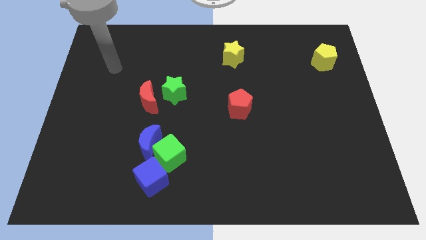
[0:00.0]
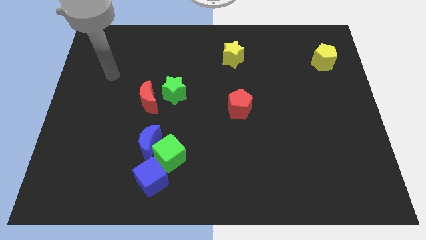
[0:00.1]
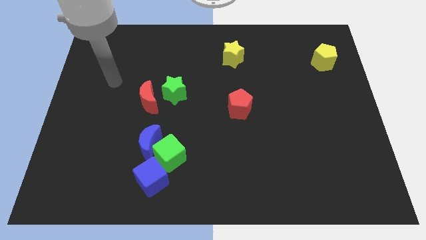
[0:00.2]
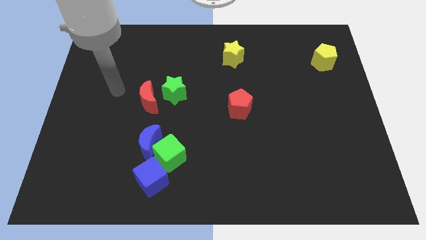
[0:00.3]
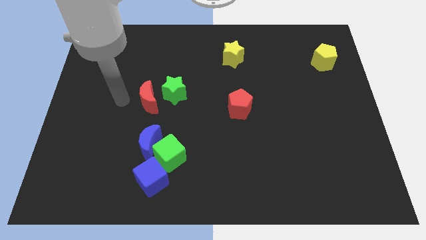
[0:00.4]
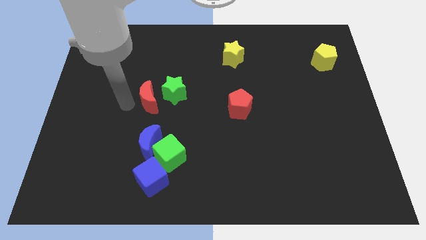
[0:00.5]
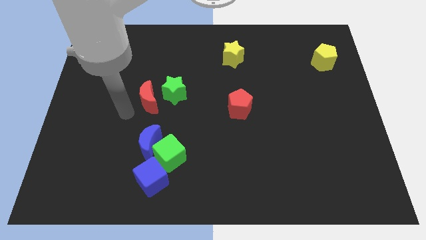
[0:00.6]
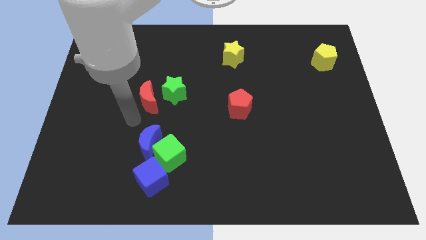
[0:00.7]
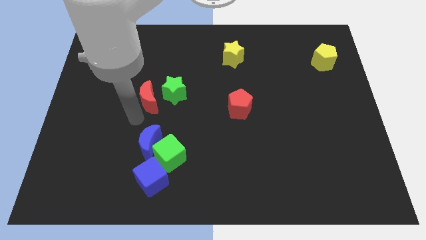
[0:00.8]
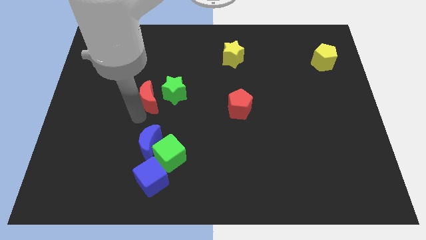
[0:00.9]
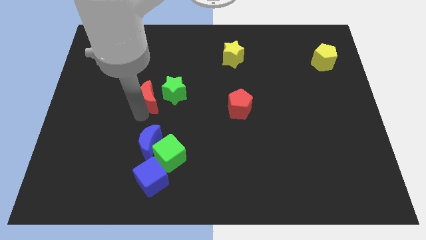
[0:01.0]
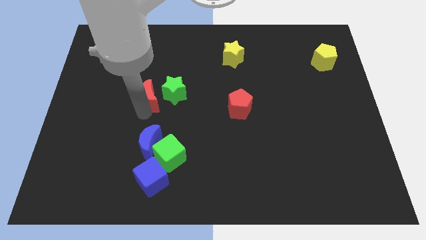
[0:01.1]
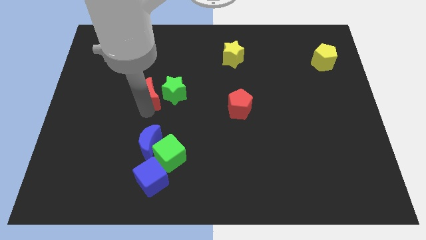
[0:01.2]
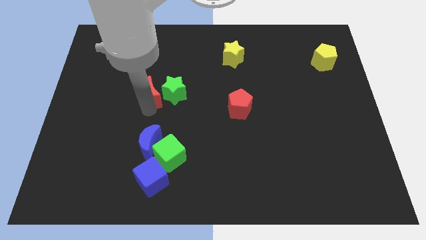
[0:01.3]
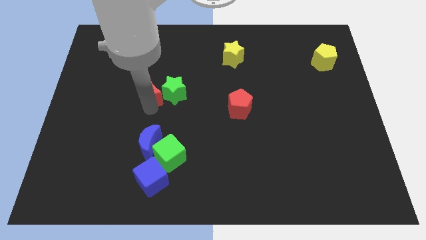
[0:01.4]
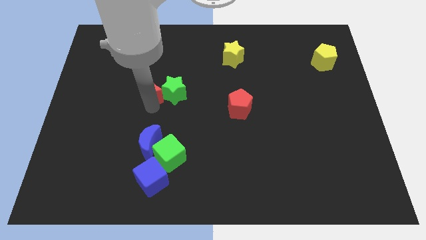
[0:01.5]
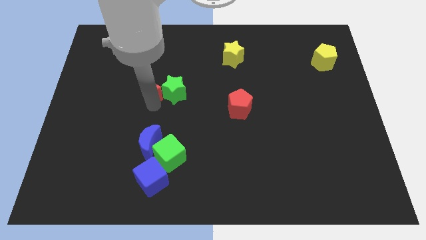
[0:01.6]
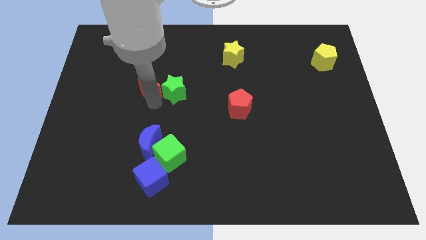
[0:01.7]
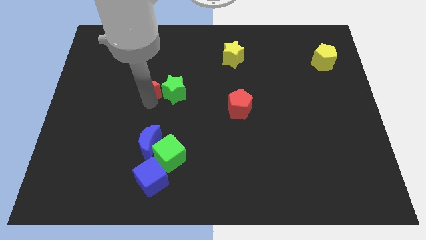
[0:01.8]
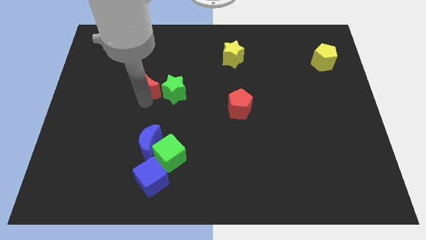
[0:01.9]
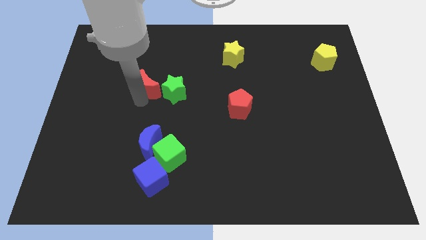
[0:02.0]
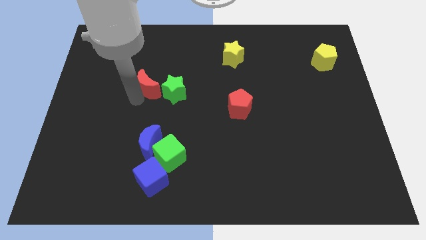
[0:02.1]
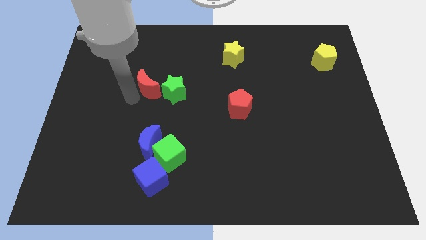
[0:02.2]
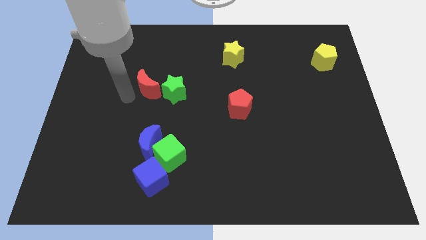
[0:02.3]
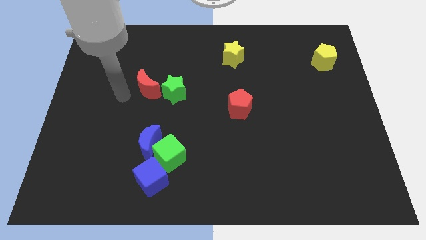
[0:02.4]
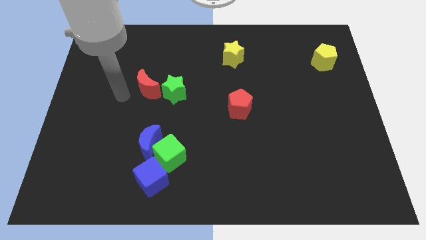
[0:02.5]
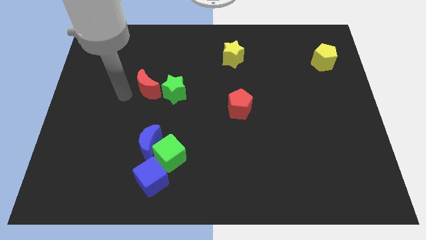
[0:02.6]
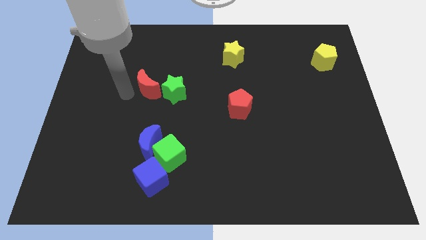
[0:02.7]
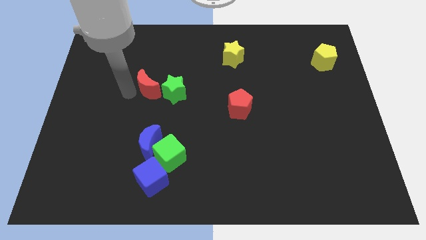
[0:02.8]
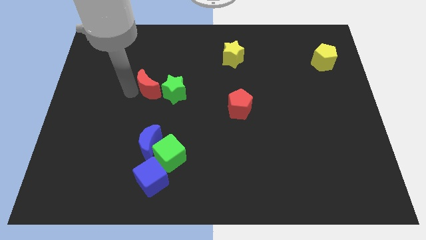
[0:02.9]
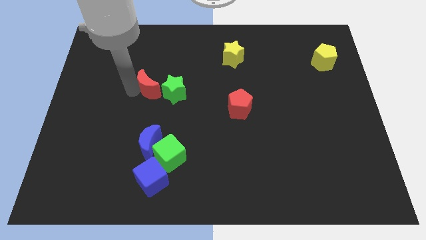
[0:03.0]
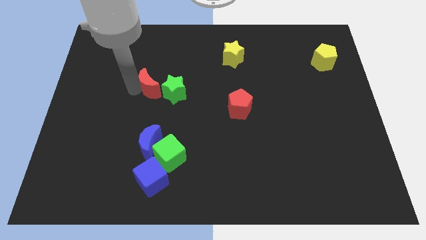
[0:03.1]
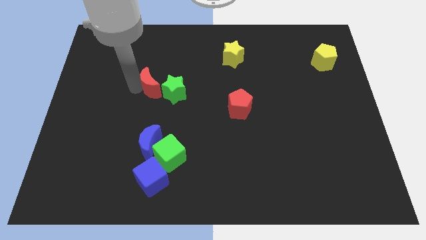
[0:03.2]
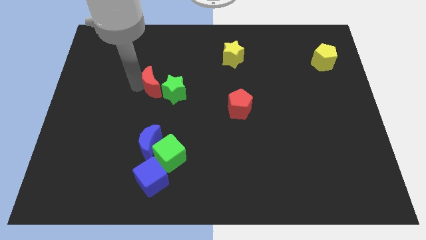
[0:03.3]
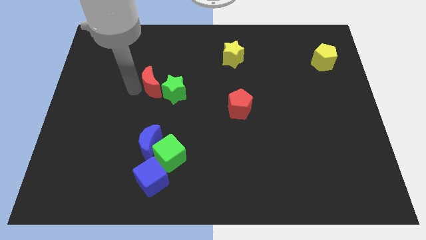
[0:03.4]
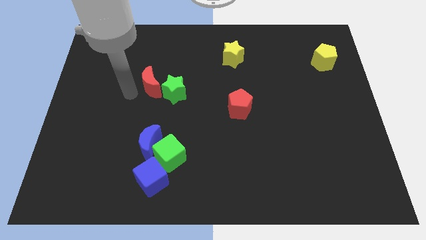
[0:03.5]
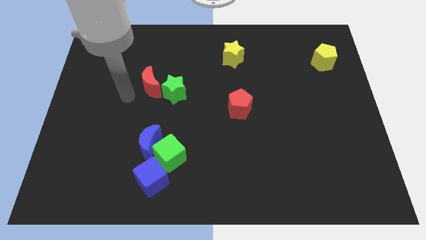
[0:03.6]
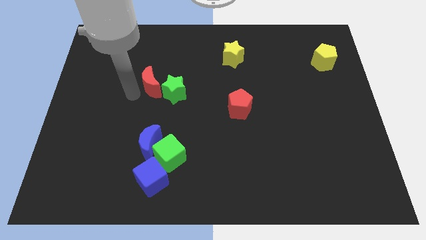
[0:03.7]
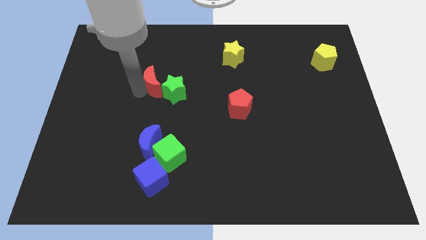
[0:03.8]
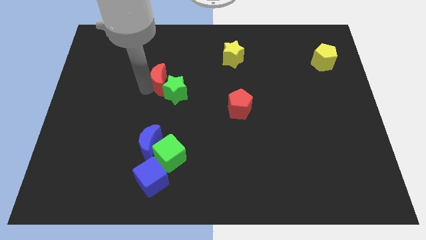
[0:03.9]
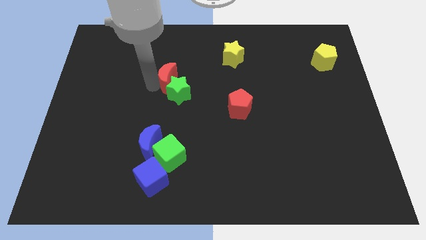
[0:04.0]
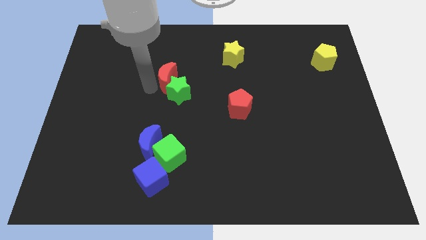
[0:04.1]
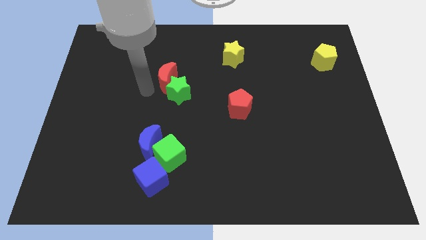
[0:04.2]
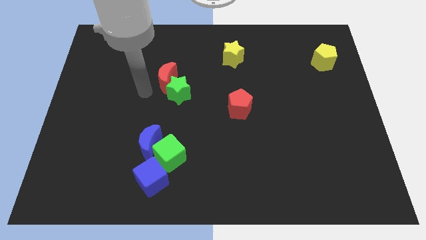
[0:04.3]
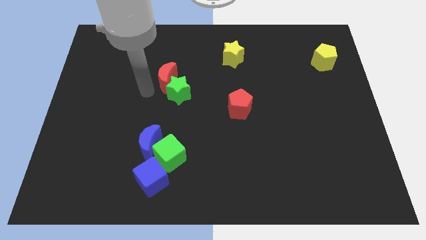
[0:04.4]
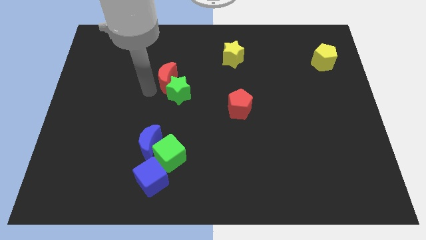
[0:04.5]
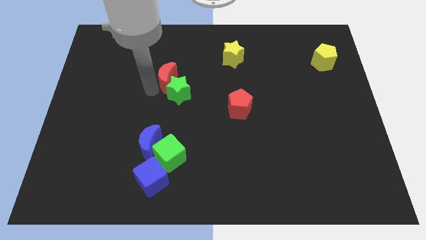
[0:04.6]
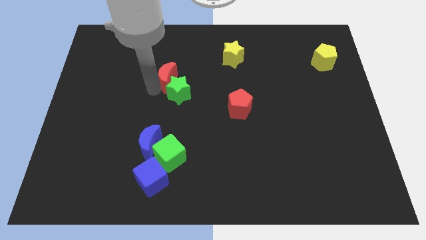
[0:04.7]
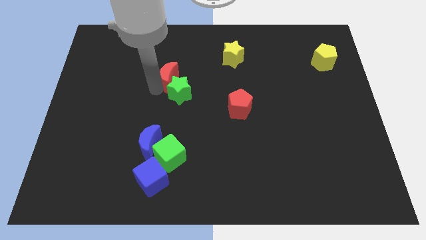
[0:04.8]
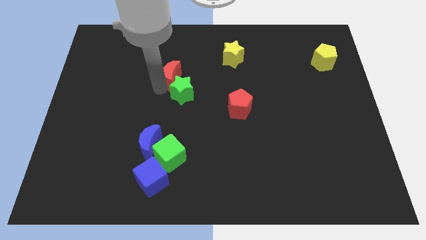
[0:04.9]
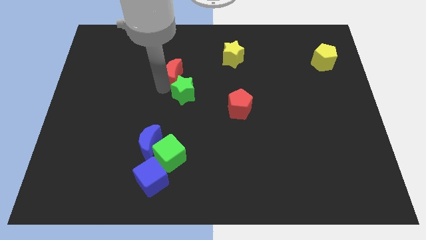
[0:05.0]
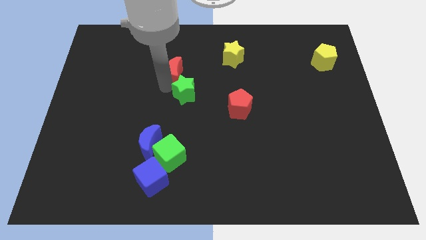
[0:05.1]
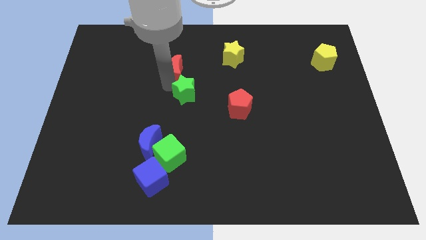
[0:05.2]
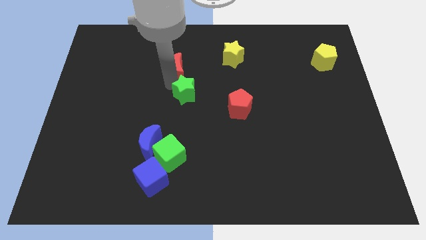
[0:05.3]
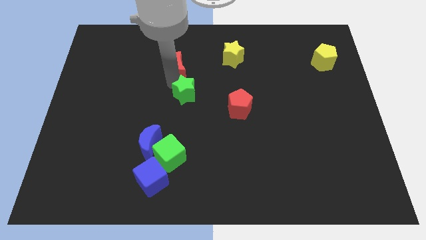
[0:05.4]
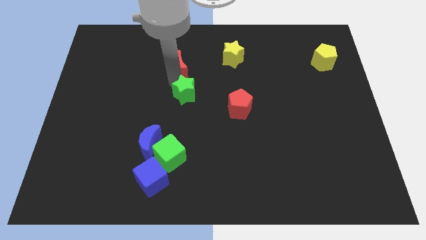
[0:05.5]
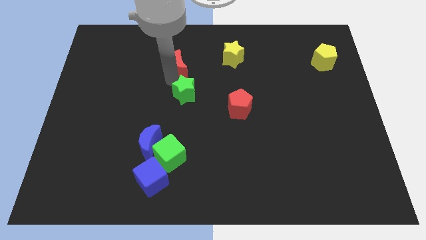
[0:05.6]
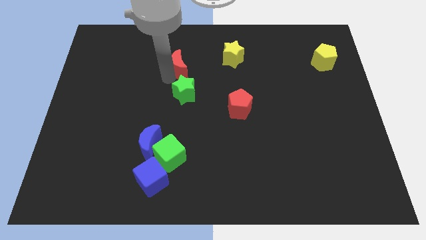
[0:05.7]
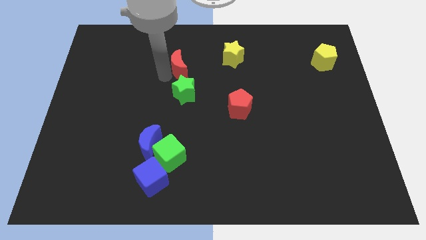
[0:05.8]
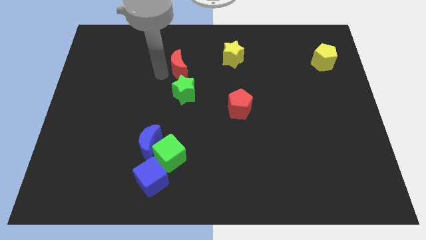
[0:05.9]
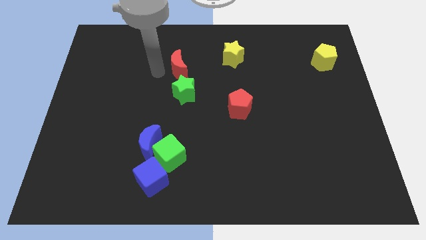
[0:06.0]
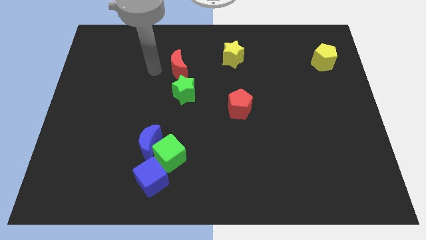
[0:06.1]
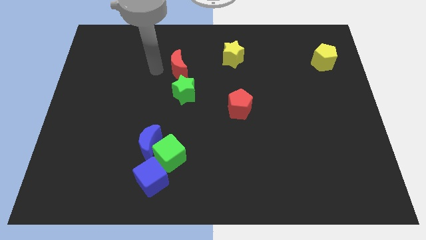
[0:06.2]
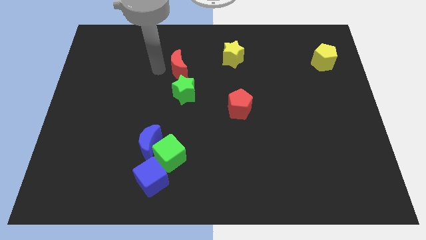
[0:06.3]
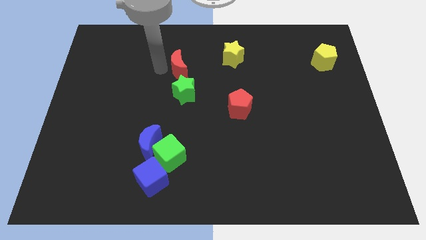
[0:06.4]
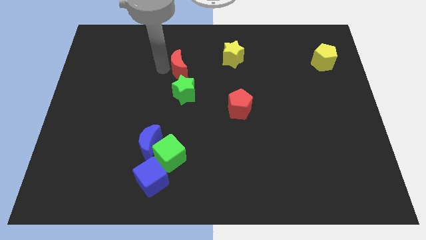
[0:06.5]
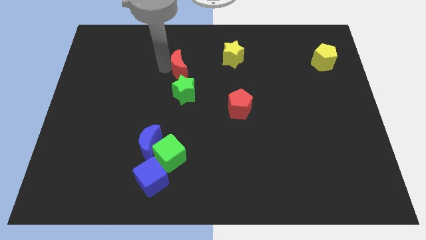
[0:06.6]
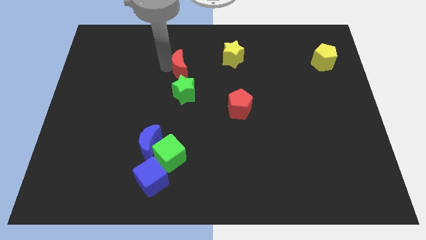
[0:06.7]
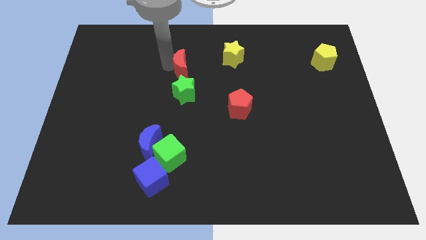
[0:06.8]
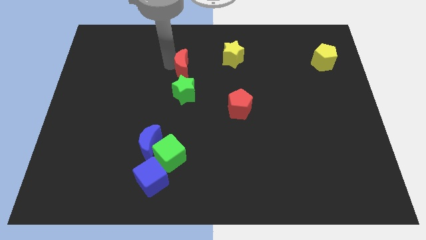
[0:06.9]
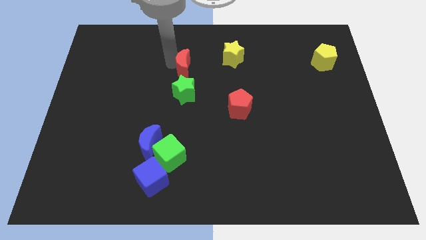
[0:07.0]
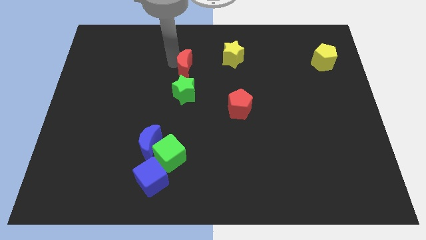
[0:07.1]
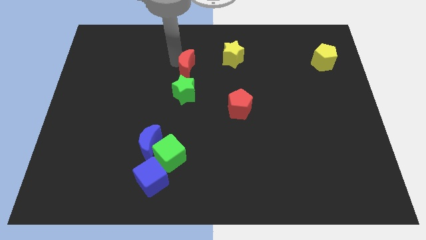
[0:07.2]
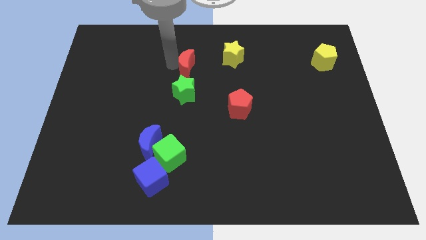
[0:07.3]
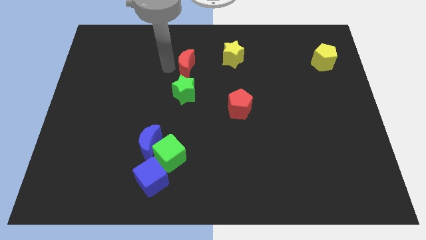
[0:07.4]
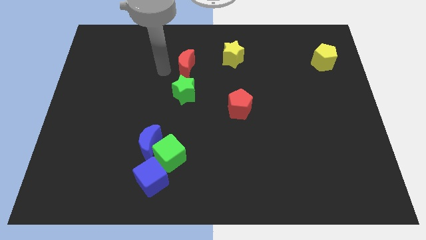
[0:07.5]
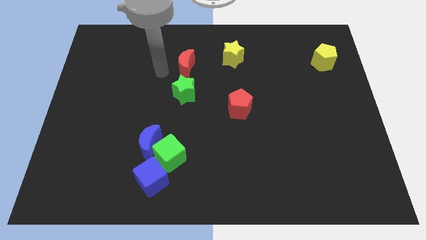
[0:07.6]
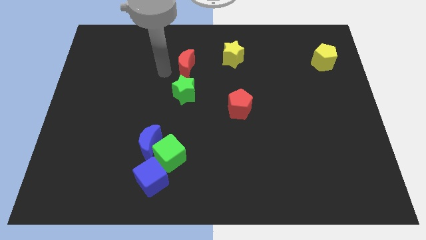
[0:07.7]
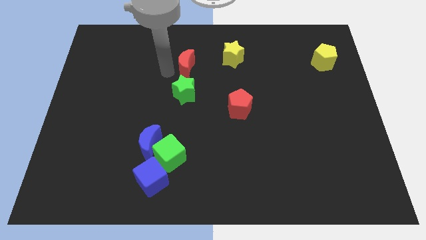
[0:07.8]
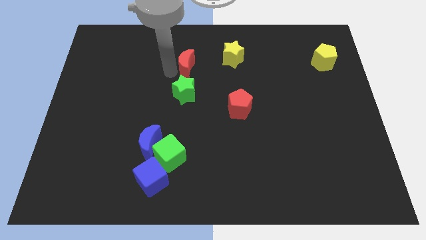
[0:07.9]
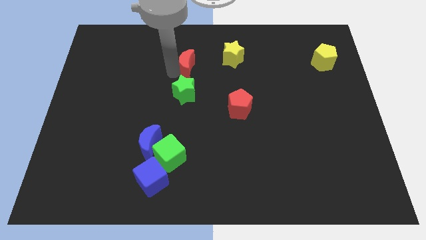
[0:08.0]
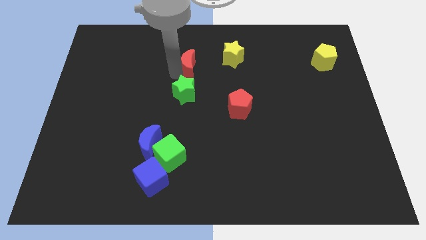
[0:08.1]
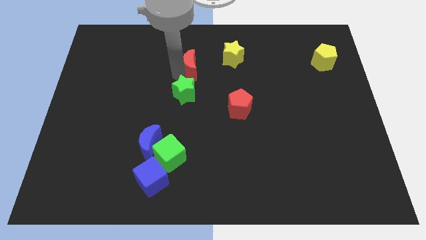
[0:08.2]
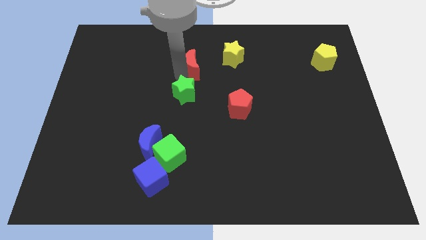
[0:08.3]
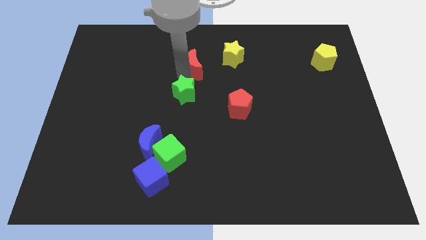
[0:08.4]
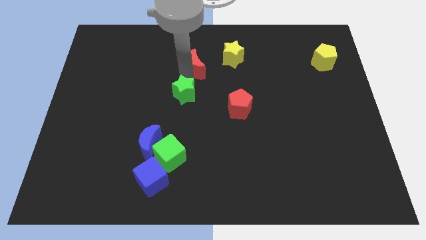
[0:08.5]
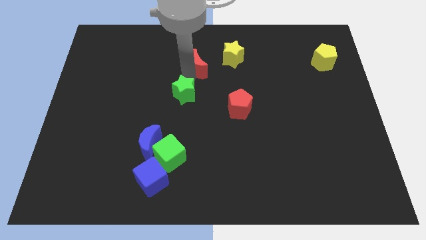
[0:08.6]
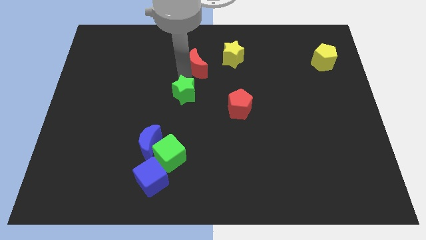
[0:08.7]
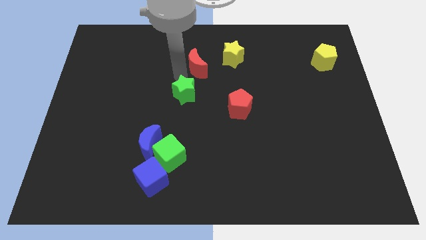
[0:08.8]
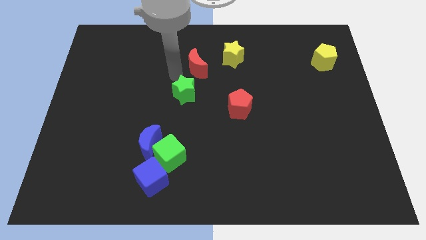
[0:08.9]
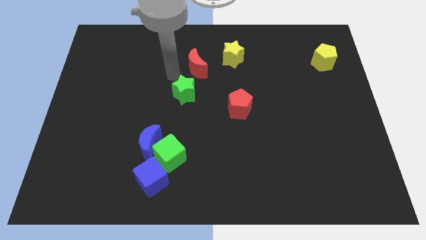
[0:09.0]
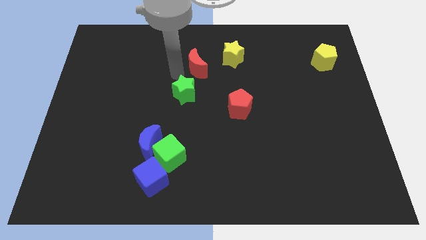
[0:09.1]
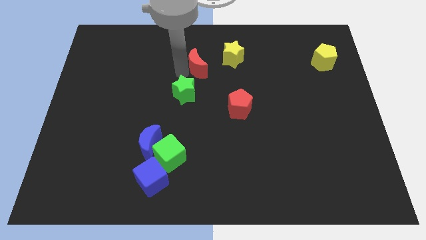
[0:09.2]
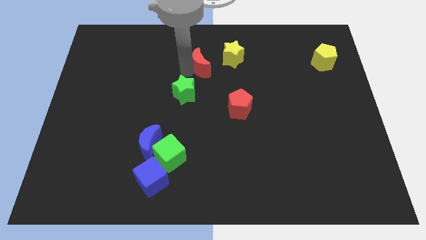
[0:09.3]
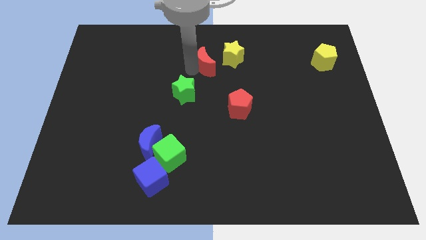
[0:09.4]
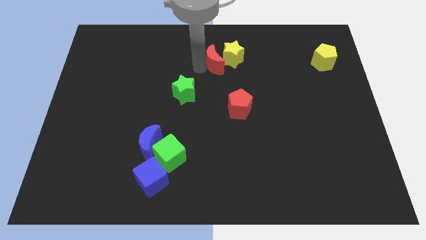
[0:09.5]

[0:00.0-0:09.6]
put the red moon next to the yellow star
